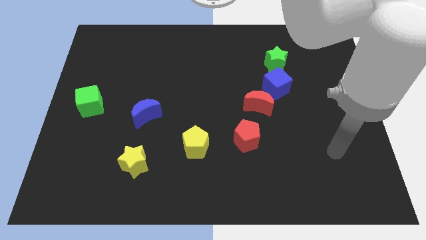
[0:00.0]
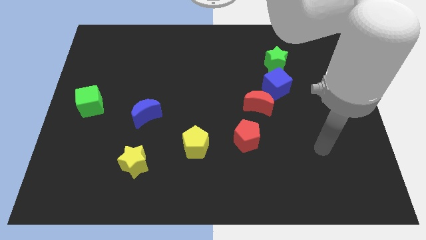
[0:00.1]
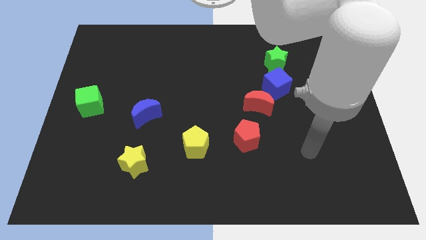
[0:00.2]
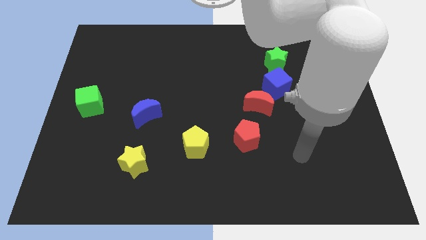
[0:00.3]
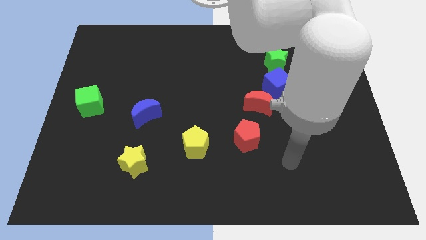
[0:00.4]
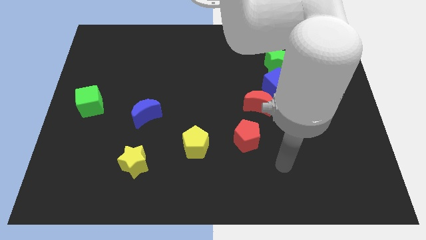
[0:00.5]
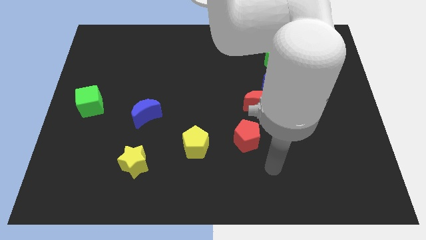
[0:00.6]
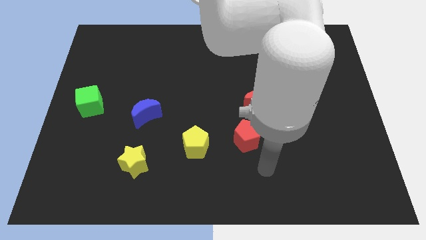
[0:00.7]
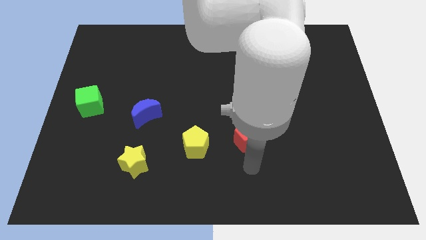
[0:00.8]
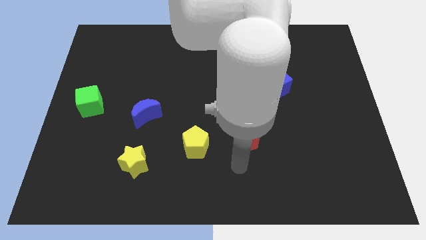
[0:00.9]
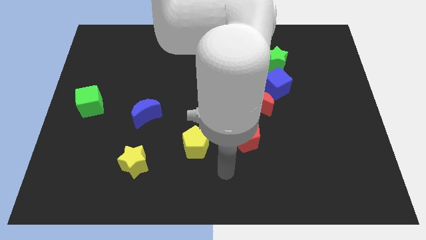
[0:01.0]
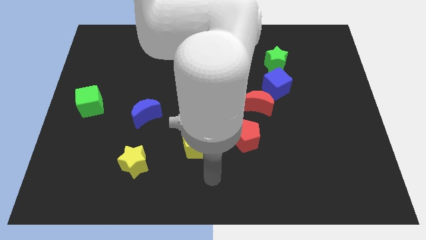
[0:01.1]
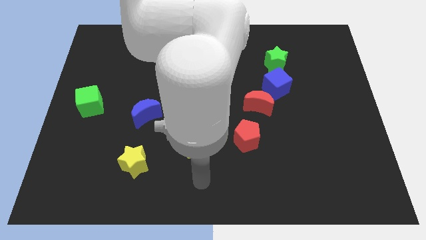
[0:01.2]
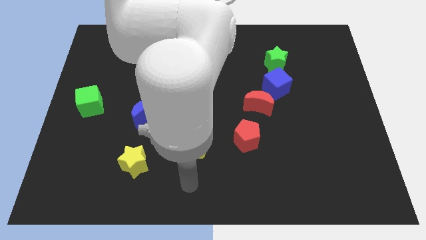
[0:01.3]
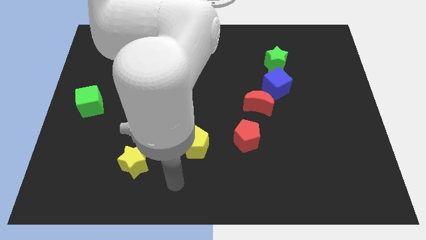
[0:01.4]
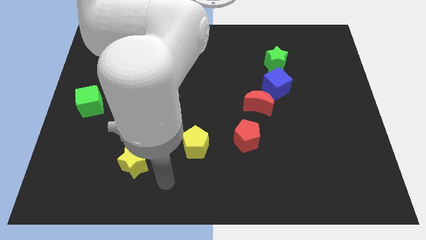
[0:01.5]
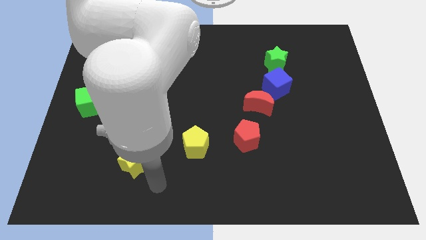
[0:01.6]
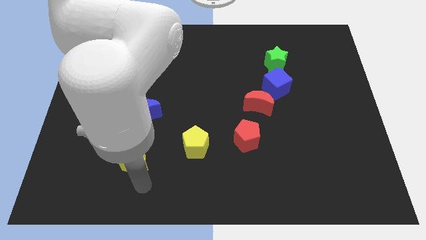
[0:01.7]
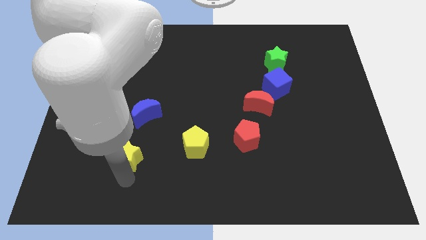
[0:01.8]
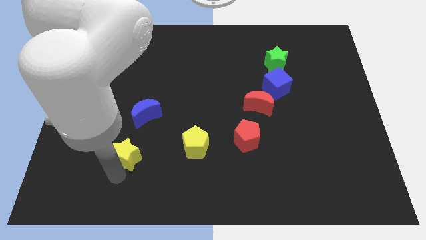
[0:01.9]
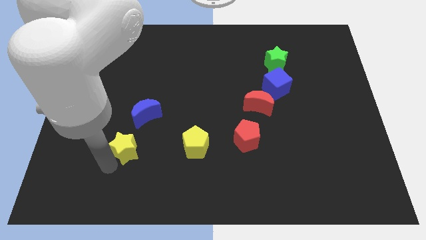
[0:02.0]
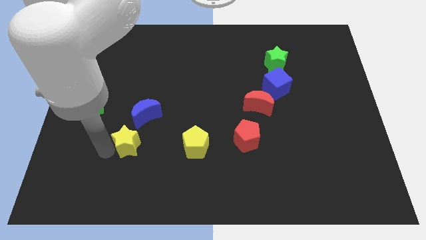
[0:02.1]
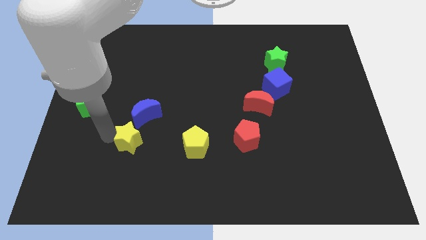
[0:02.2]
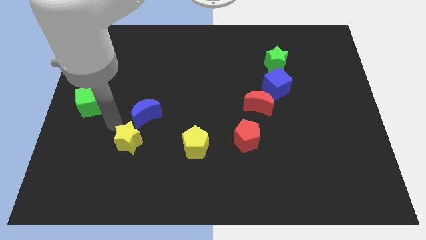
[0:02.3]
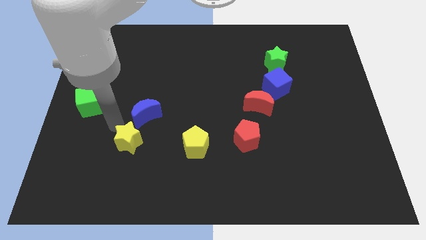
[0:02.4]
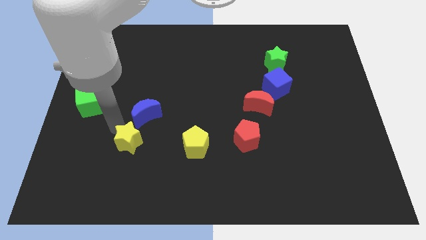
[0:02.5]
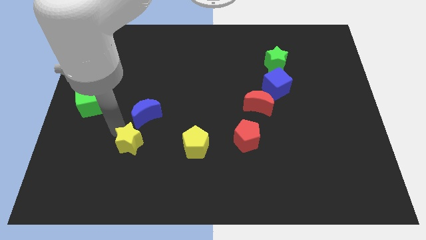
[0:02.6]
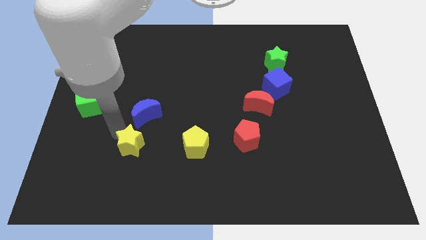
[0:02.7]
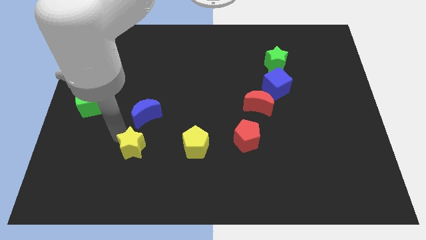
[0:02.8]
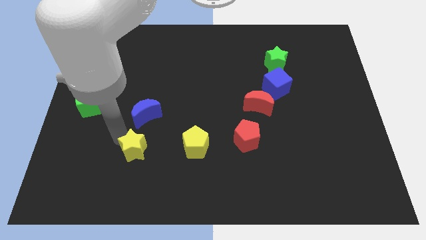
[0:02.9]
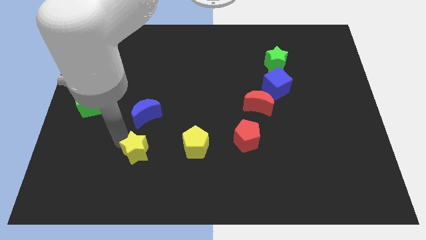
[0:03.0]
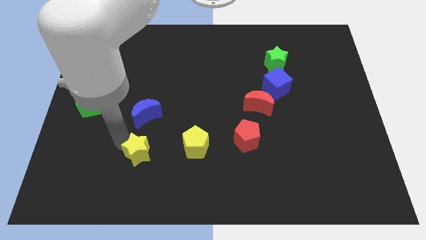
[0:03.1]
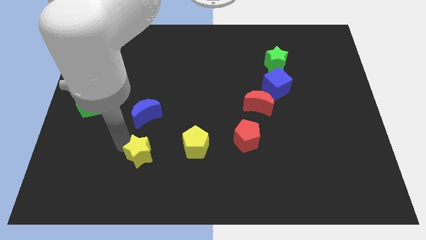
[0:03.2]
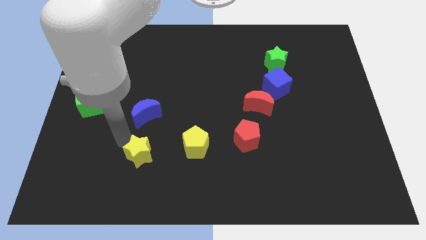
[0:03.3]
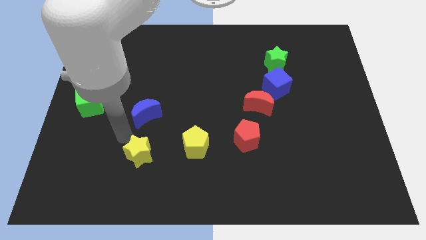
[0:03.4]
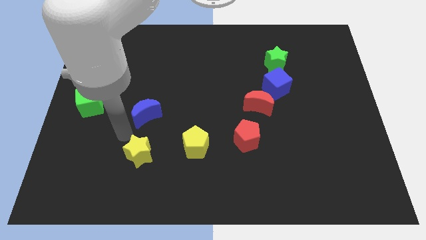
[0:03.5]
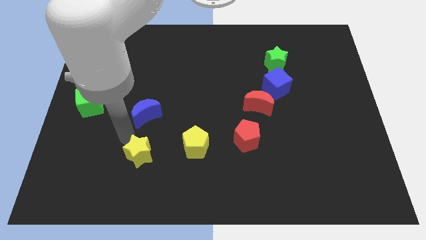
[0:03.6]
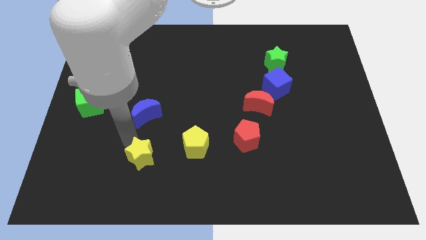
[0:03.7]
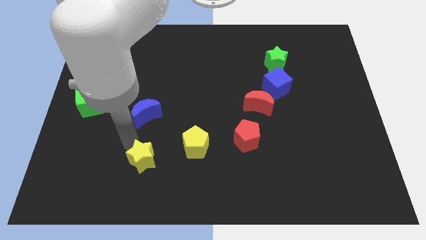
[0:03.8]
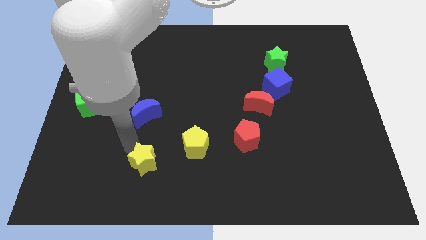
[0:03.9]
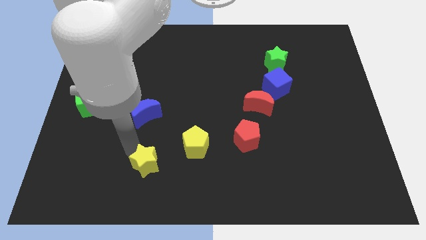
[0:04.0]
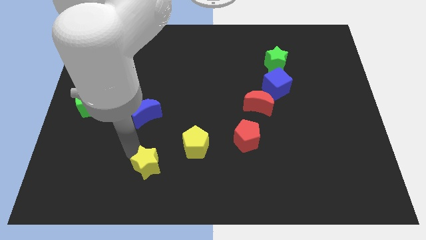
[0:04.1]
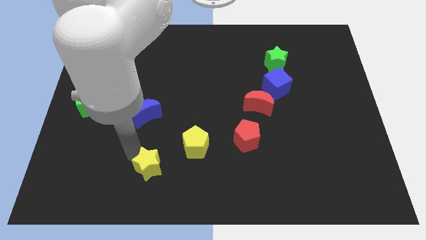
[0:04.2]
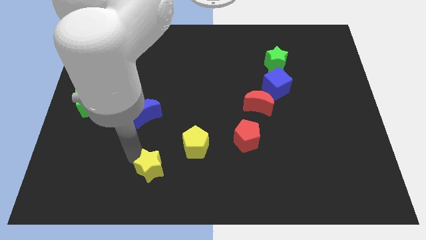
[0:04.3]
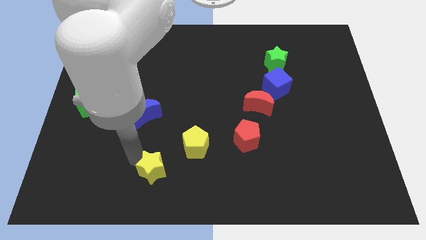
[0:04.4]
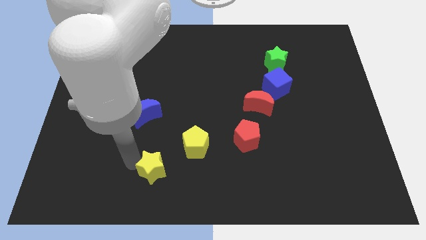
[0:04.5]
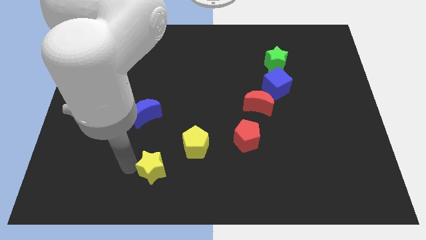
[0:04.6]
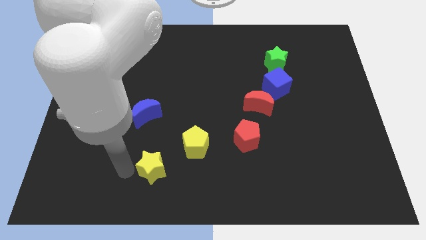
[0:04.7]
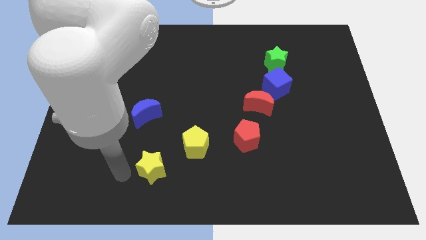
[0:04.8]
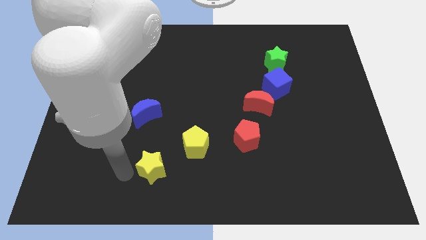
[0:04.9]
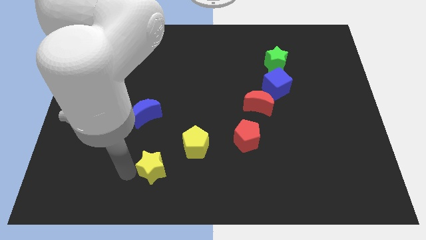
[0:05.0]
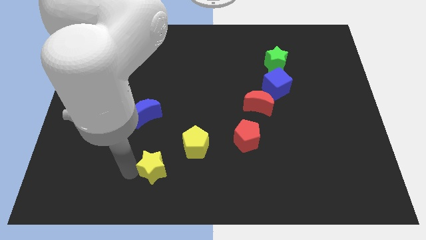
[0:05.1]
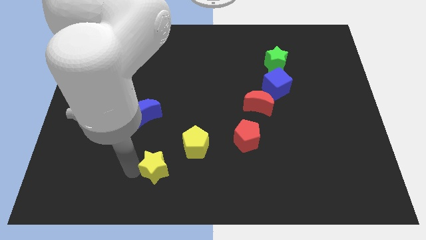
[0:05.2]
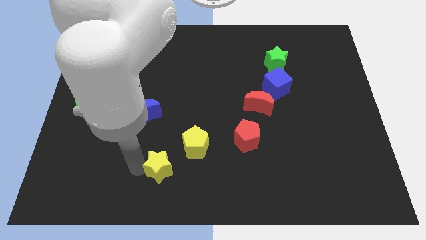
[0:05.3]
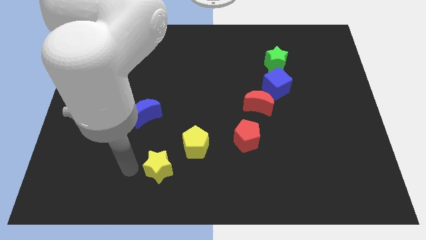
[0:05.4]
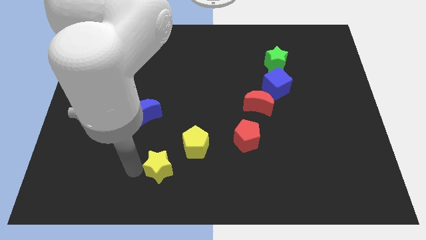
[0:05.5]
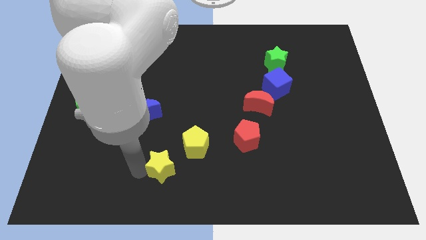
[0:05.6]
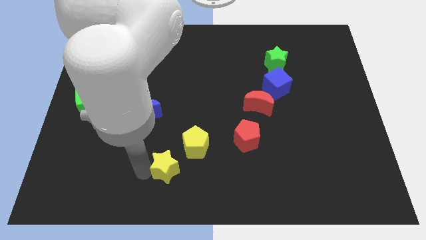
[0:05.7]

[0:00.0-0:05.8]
slide the yellow star somewhat right

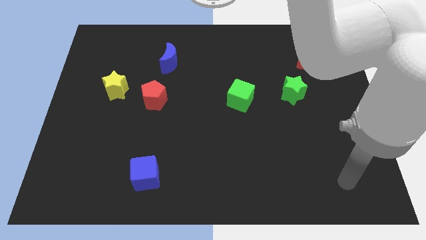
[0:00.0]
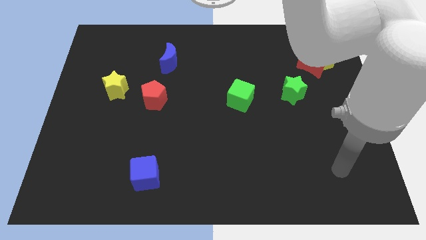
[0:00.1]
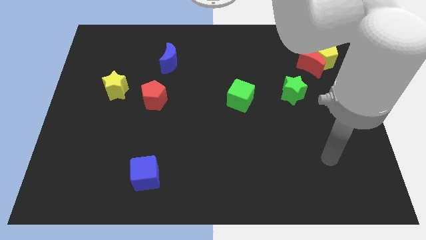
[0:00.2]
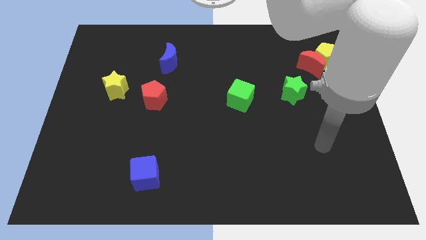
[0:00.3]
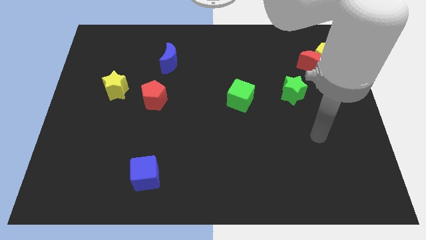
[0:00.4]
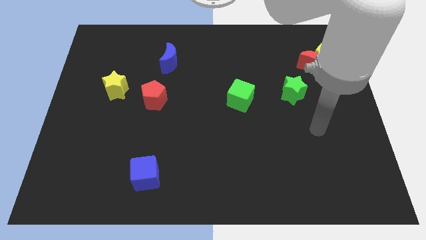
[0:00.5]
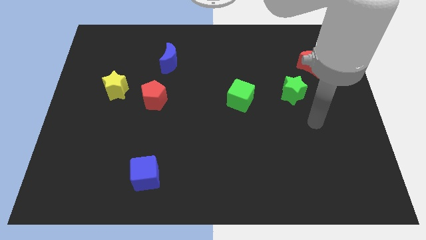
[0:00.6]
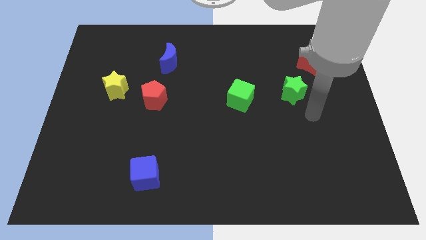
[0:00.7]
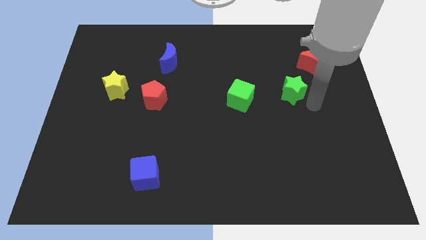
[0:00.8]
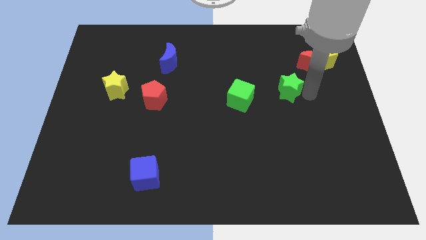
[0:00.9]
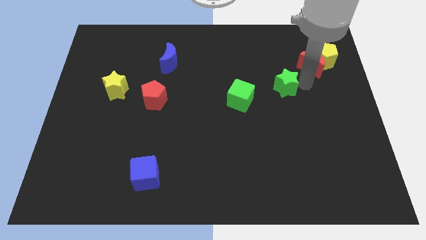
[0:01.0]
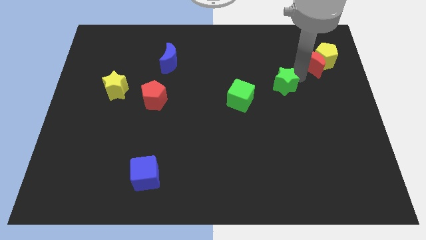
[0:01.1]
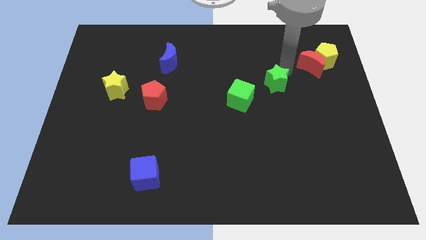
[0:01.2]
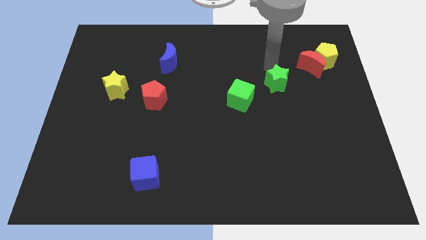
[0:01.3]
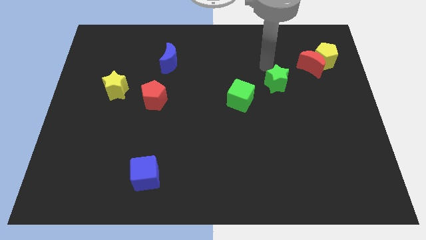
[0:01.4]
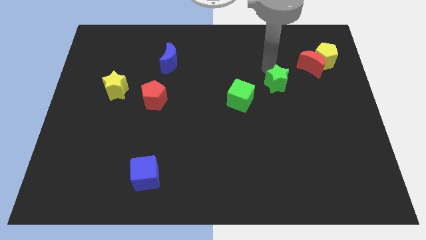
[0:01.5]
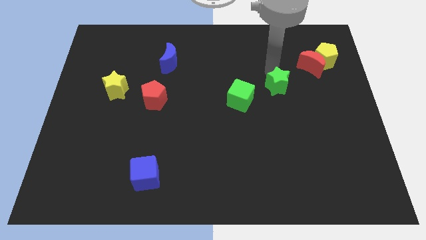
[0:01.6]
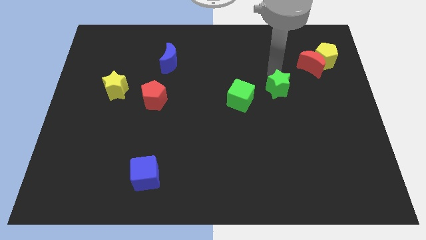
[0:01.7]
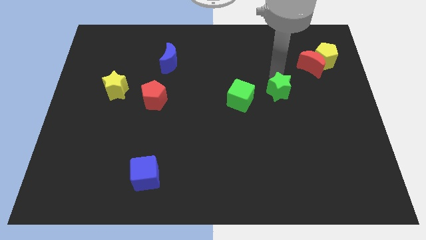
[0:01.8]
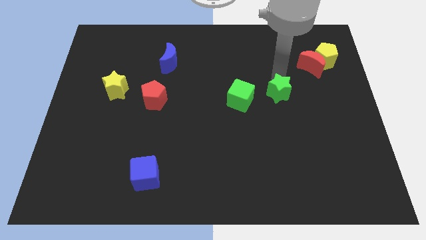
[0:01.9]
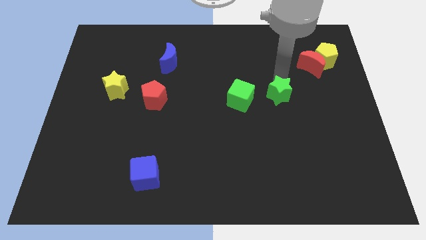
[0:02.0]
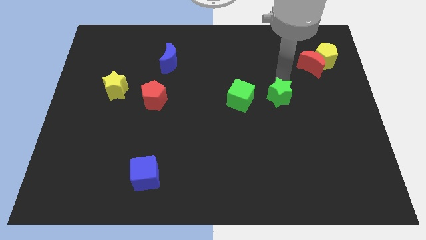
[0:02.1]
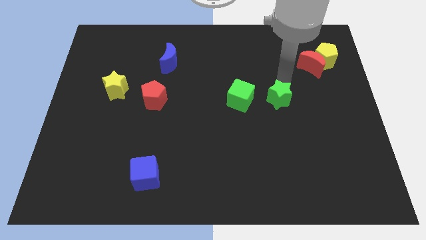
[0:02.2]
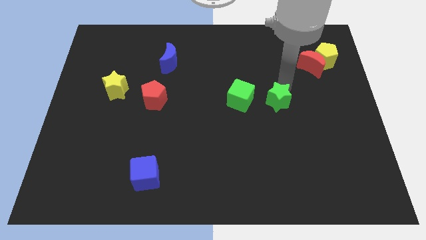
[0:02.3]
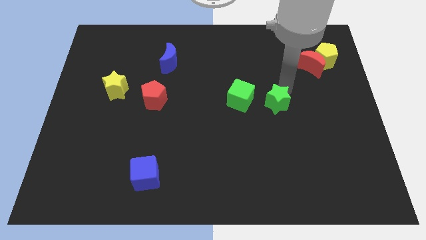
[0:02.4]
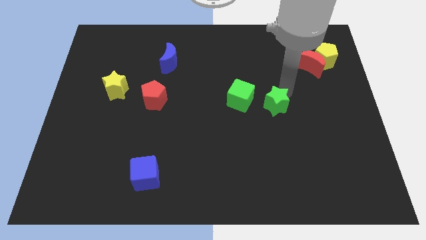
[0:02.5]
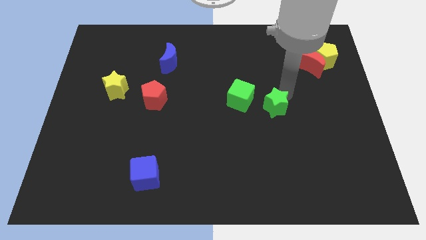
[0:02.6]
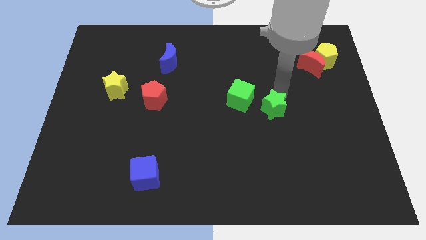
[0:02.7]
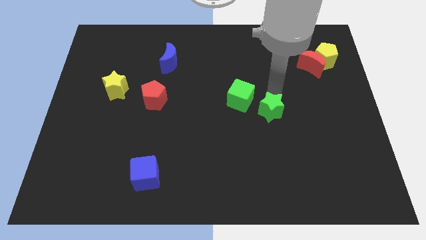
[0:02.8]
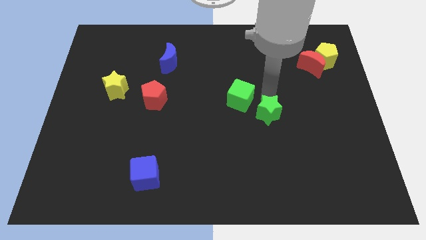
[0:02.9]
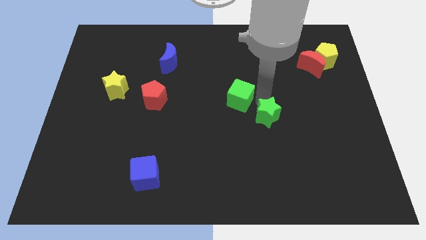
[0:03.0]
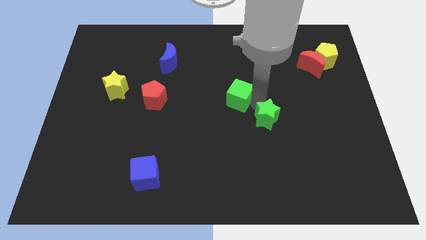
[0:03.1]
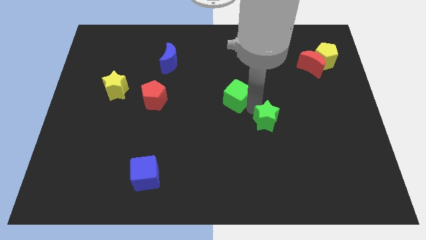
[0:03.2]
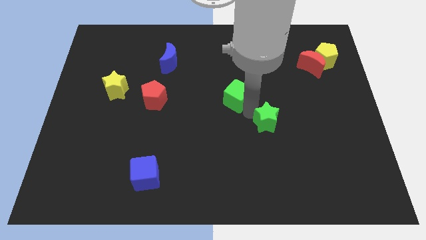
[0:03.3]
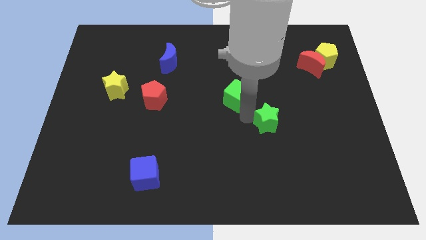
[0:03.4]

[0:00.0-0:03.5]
slide the green star down a little
